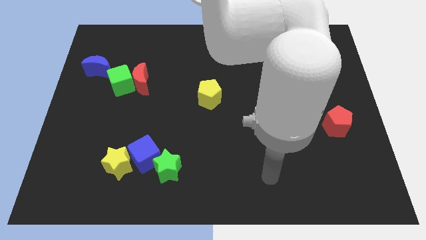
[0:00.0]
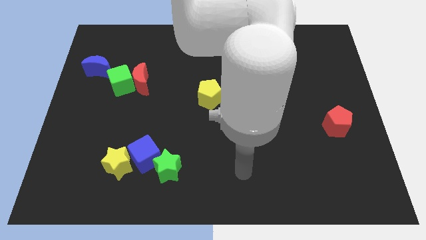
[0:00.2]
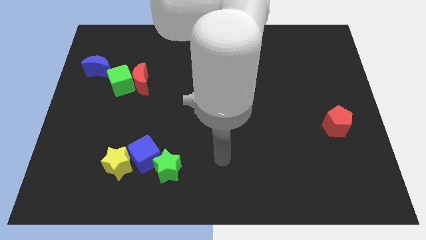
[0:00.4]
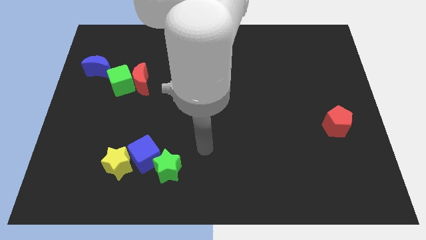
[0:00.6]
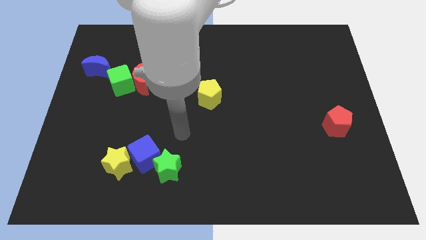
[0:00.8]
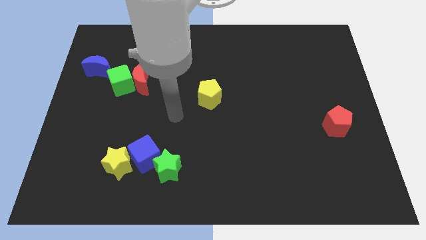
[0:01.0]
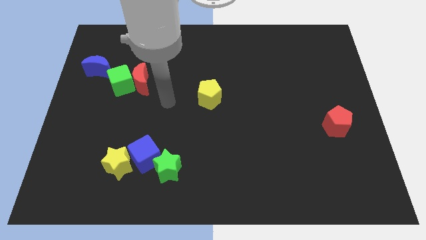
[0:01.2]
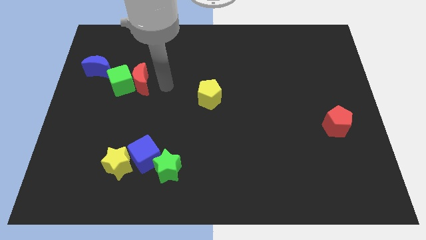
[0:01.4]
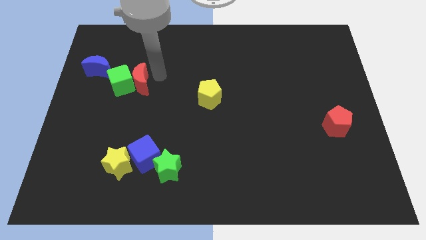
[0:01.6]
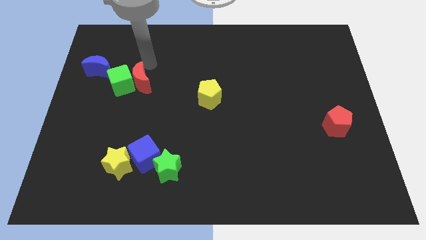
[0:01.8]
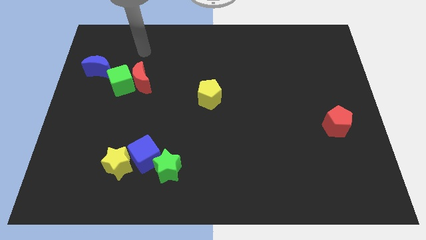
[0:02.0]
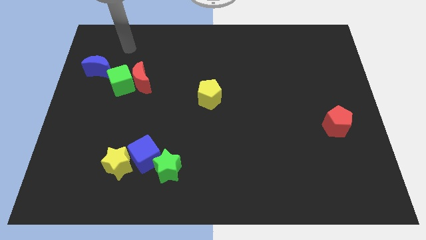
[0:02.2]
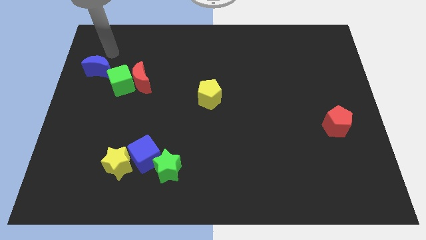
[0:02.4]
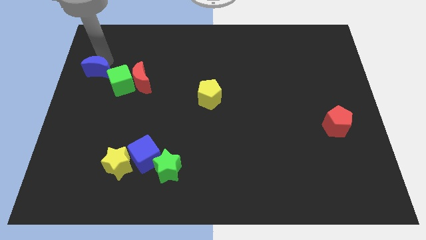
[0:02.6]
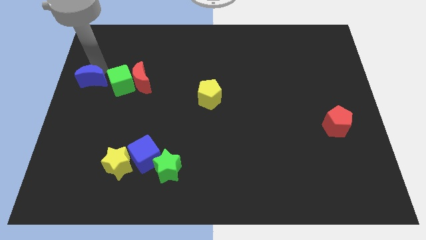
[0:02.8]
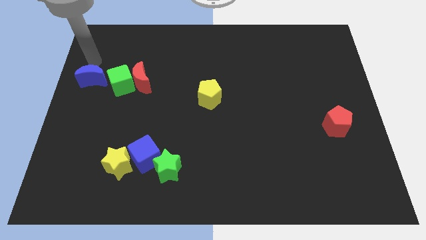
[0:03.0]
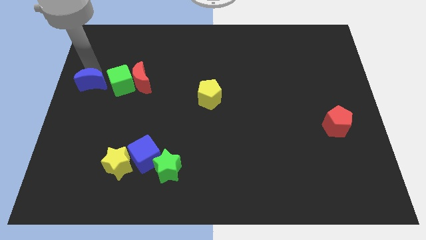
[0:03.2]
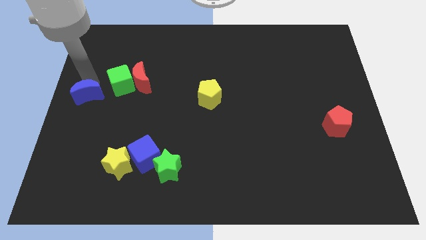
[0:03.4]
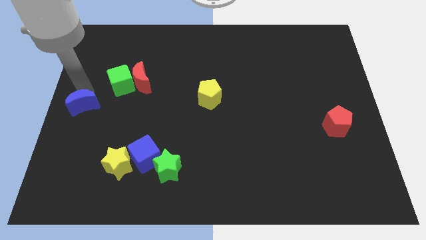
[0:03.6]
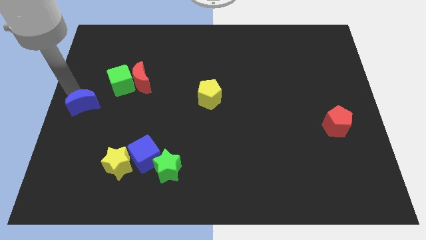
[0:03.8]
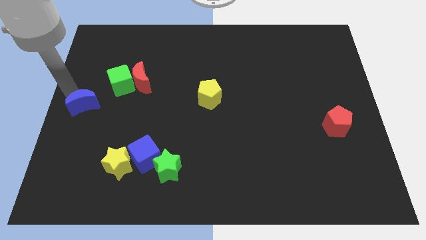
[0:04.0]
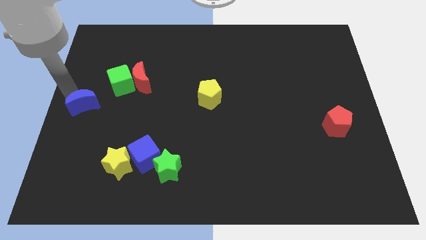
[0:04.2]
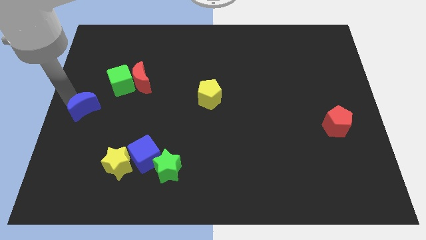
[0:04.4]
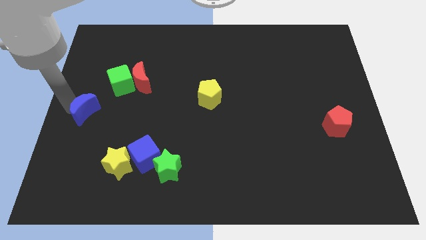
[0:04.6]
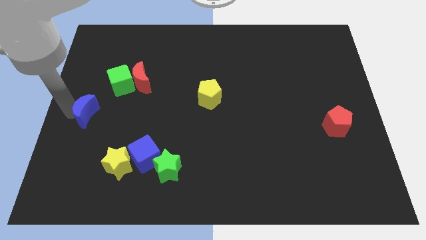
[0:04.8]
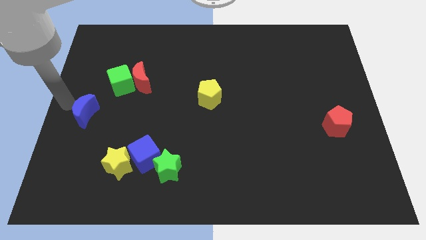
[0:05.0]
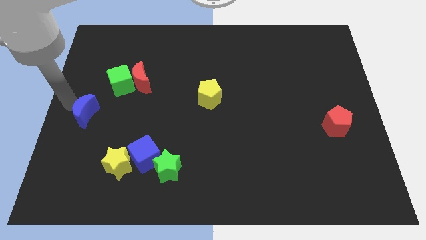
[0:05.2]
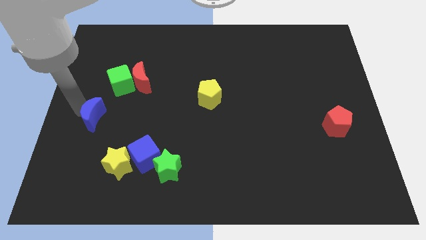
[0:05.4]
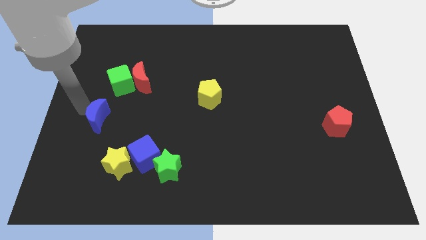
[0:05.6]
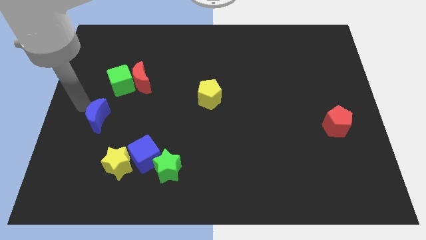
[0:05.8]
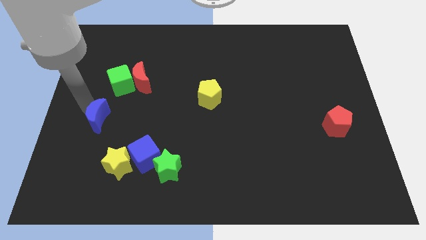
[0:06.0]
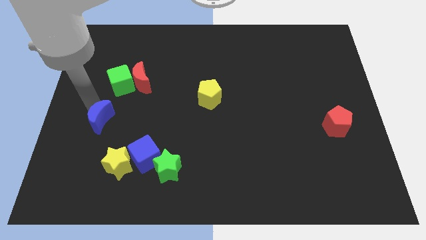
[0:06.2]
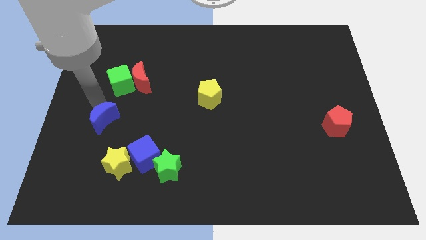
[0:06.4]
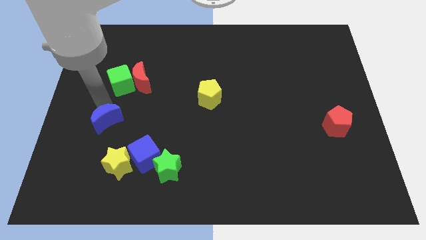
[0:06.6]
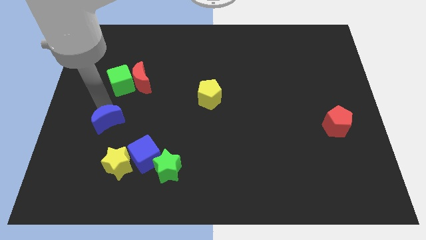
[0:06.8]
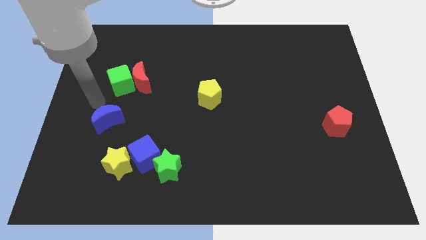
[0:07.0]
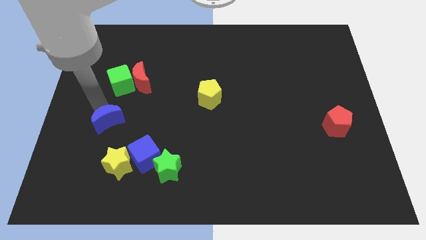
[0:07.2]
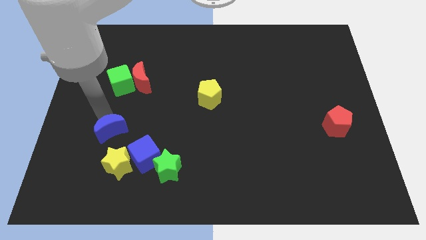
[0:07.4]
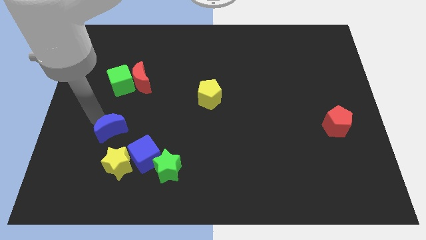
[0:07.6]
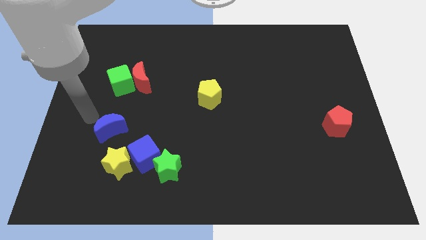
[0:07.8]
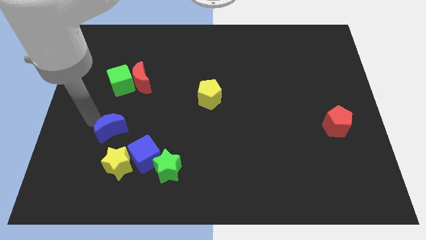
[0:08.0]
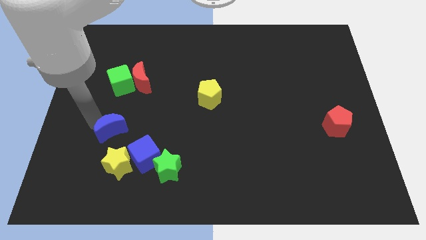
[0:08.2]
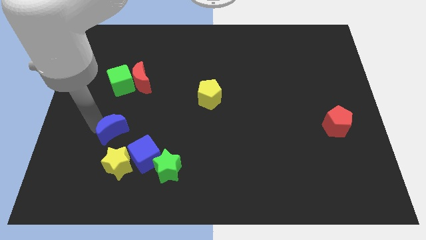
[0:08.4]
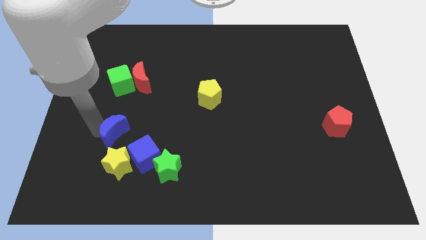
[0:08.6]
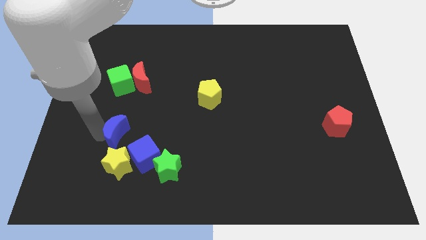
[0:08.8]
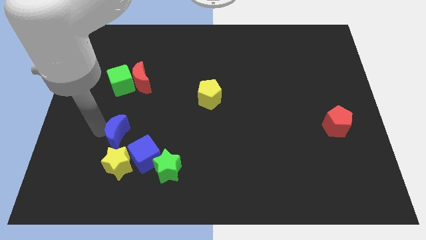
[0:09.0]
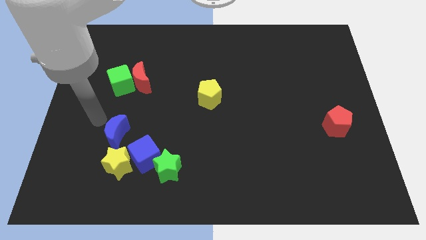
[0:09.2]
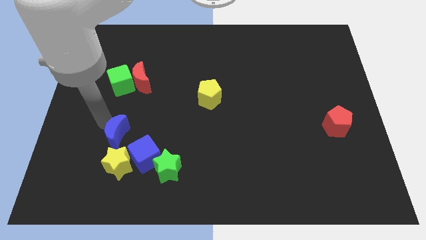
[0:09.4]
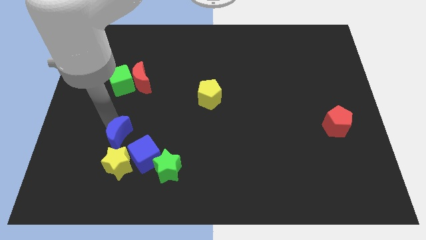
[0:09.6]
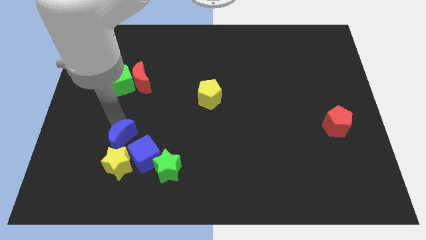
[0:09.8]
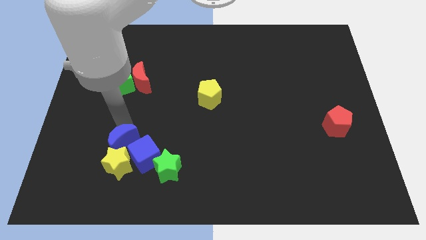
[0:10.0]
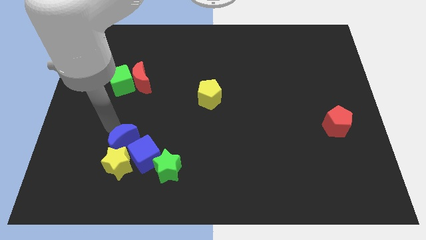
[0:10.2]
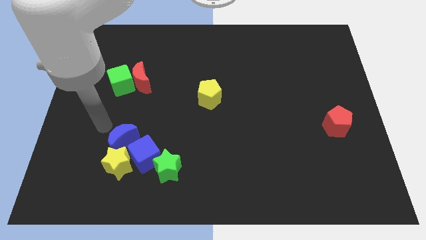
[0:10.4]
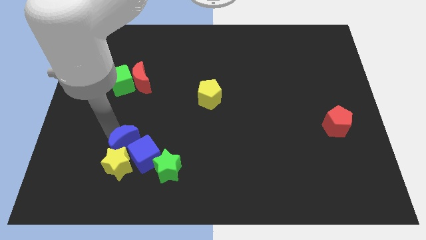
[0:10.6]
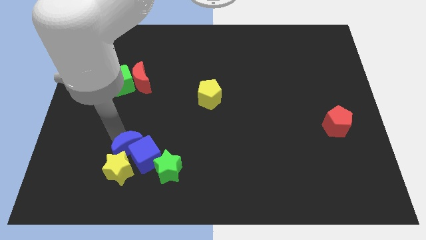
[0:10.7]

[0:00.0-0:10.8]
push the blue moon next to the blue cube

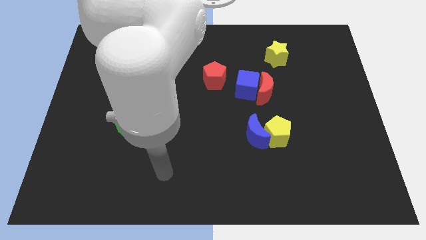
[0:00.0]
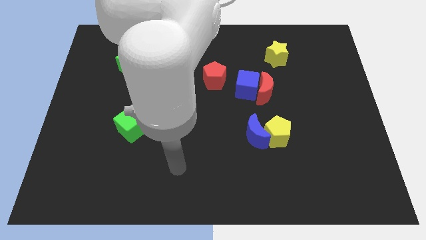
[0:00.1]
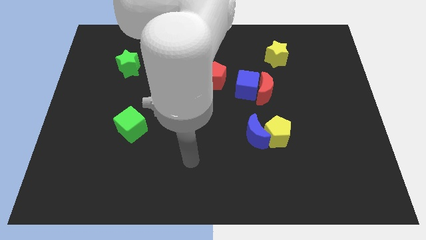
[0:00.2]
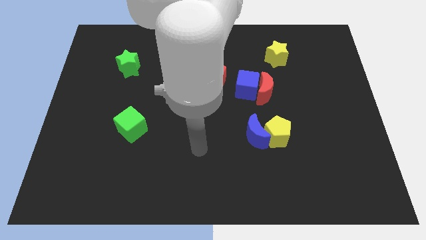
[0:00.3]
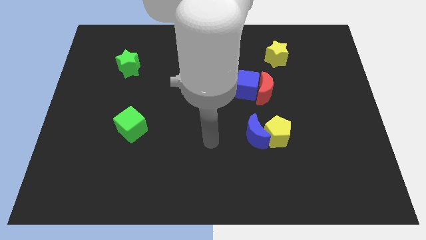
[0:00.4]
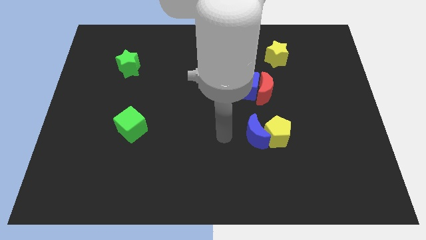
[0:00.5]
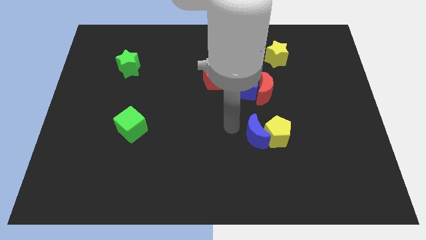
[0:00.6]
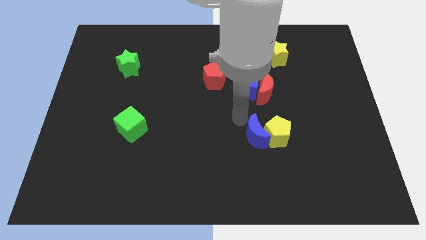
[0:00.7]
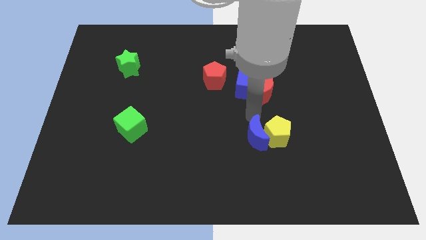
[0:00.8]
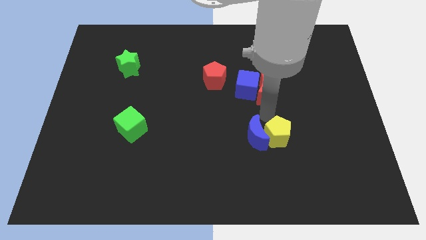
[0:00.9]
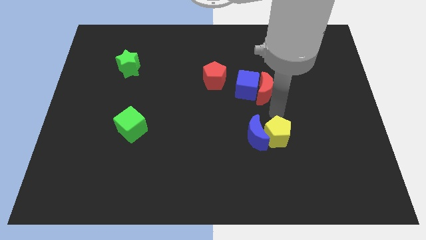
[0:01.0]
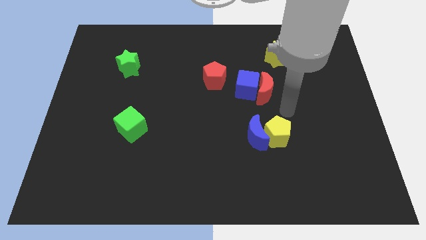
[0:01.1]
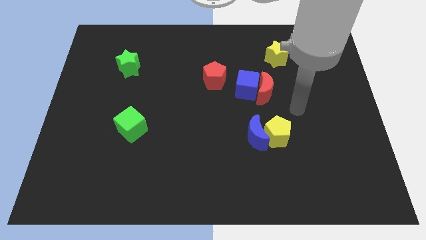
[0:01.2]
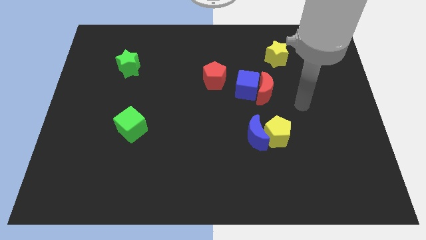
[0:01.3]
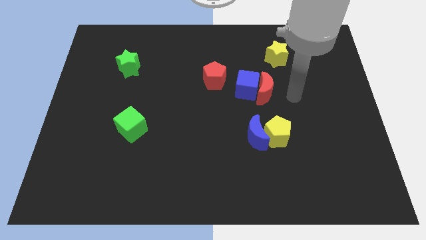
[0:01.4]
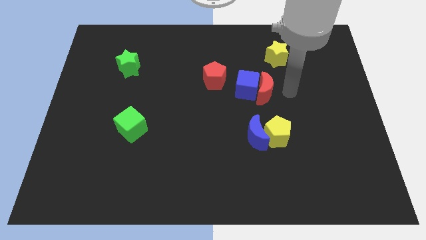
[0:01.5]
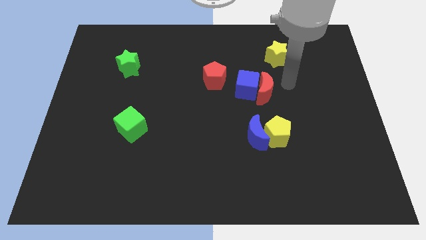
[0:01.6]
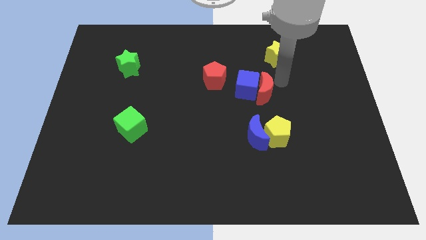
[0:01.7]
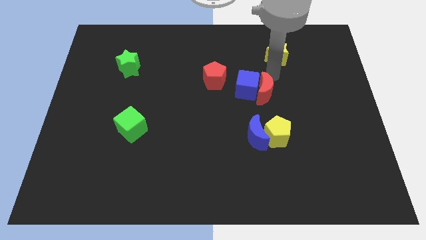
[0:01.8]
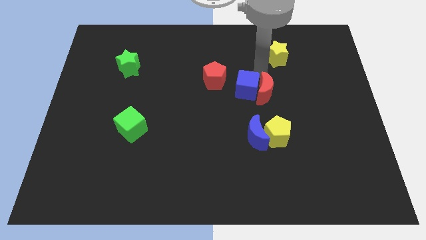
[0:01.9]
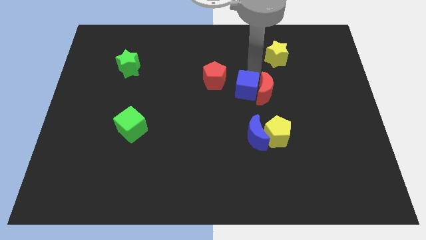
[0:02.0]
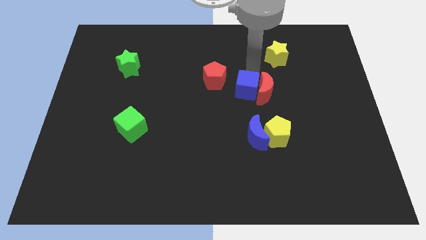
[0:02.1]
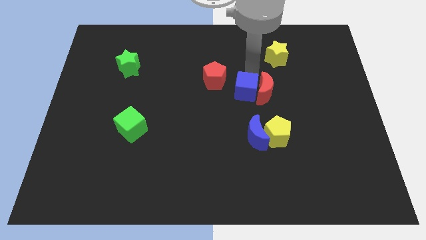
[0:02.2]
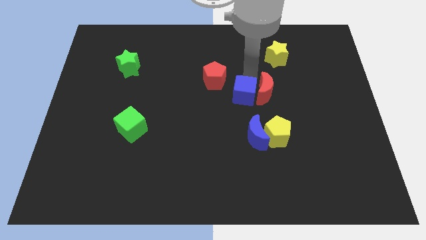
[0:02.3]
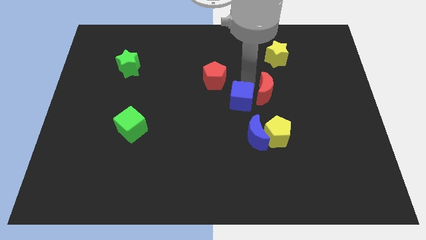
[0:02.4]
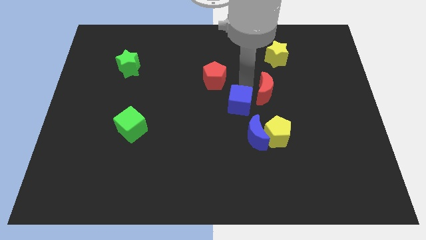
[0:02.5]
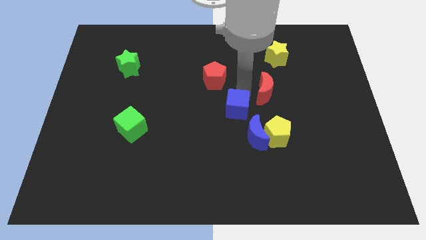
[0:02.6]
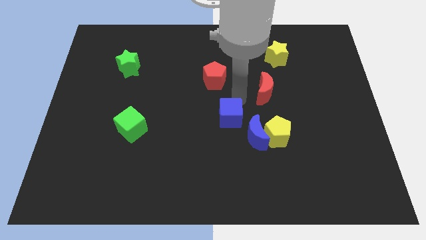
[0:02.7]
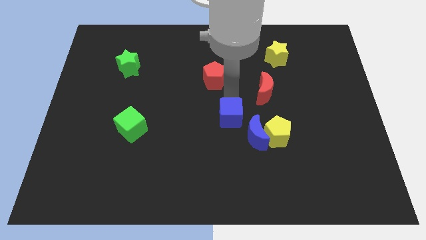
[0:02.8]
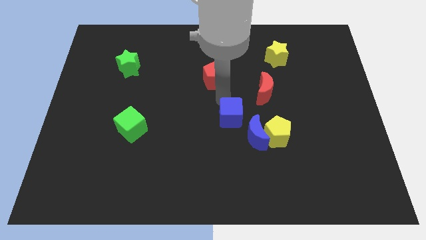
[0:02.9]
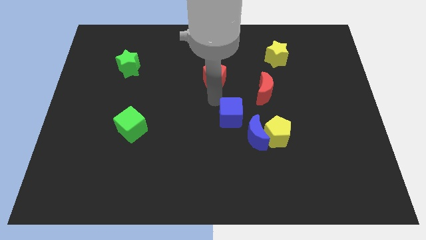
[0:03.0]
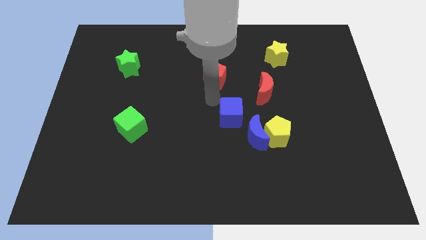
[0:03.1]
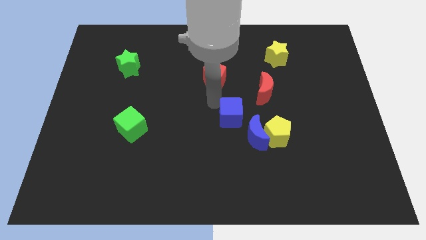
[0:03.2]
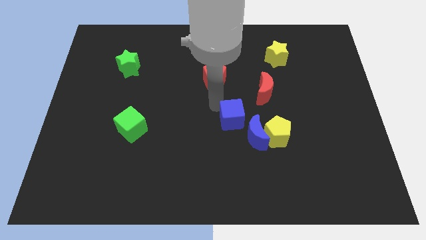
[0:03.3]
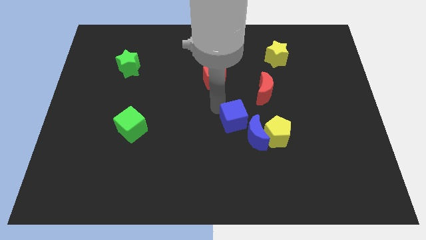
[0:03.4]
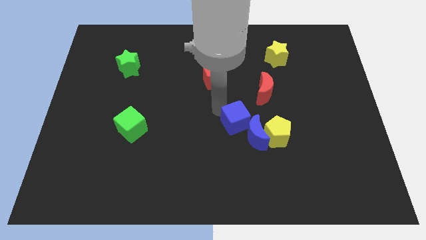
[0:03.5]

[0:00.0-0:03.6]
slide the blue cube to the blue moon
